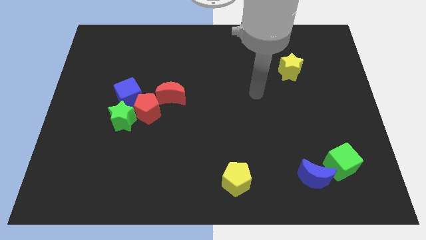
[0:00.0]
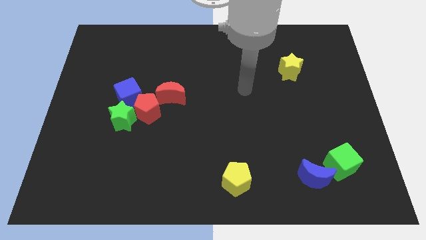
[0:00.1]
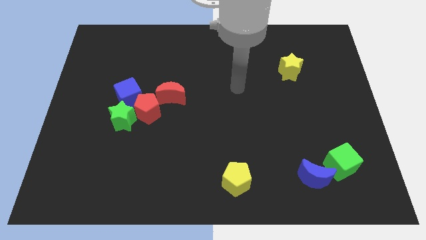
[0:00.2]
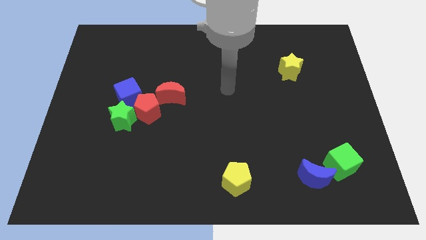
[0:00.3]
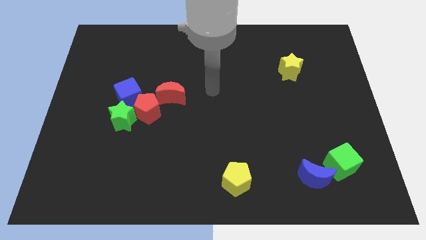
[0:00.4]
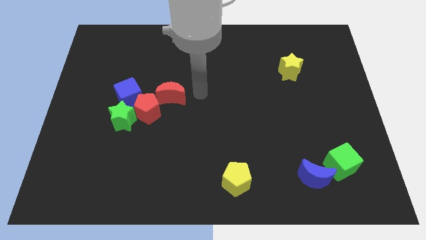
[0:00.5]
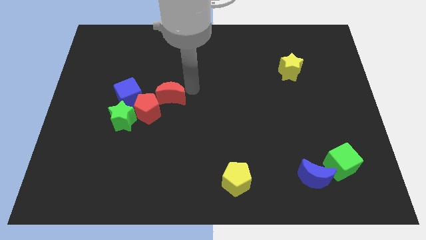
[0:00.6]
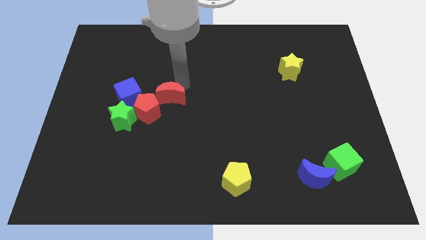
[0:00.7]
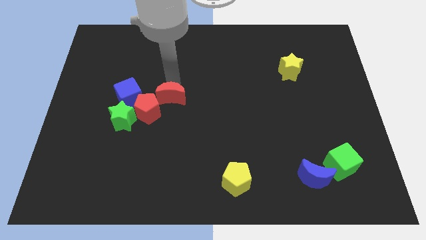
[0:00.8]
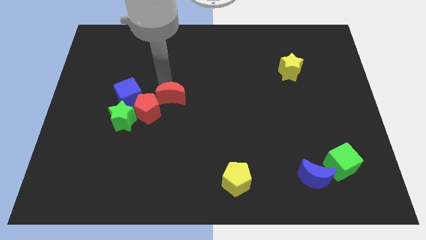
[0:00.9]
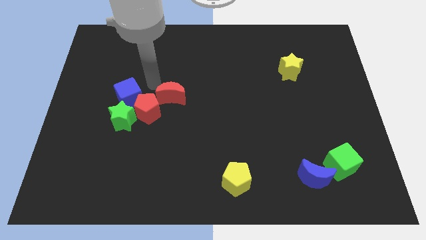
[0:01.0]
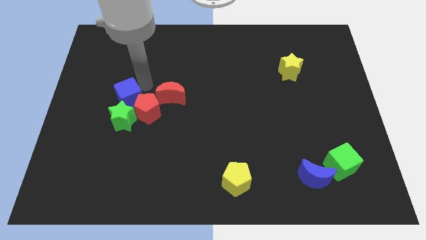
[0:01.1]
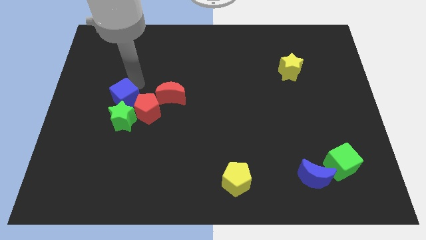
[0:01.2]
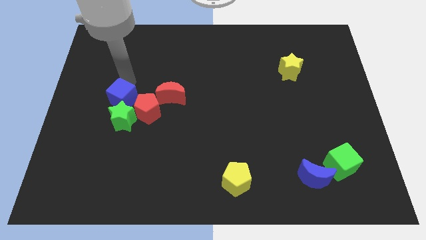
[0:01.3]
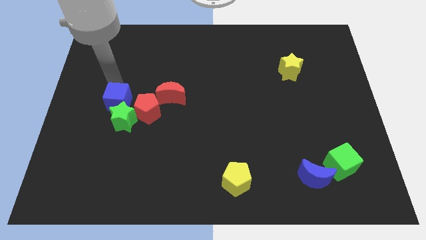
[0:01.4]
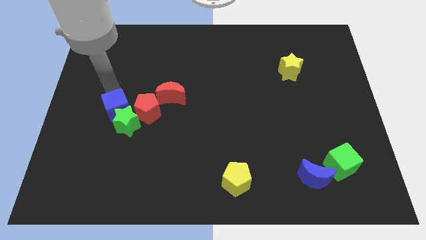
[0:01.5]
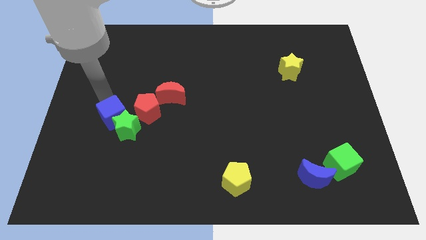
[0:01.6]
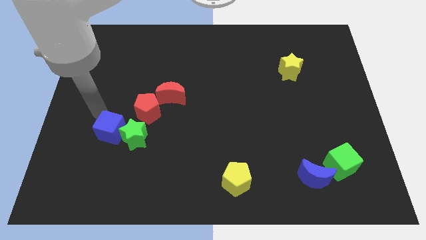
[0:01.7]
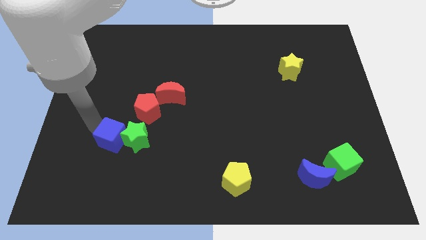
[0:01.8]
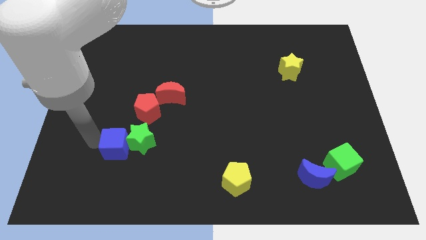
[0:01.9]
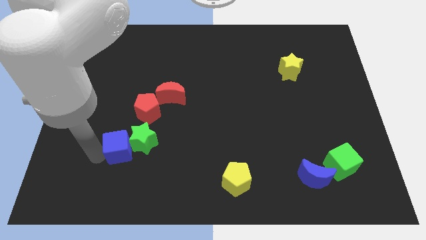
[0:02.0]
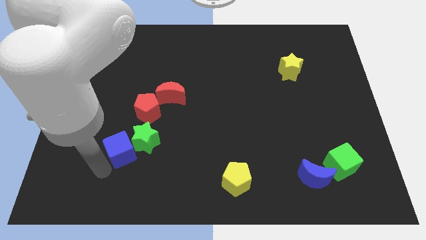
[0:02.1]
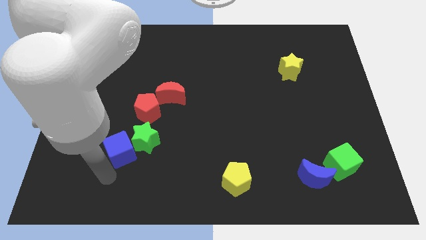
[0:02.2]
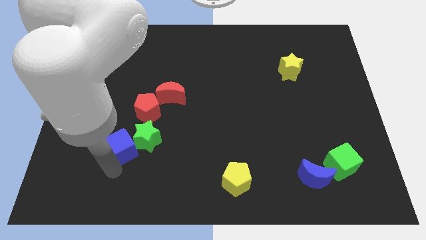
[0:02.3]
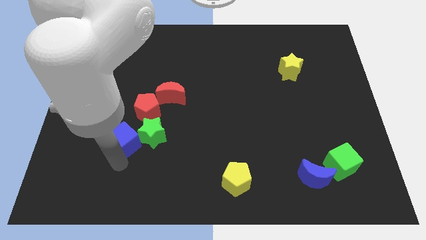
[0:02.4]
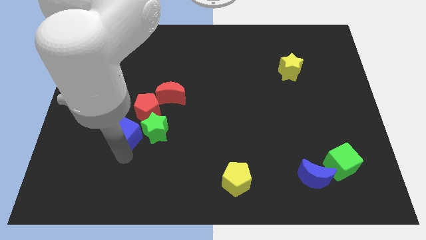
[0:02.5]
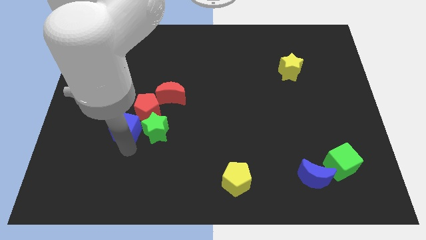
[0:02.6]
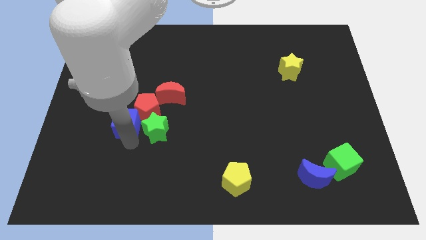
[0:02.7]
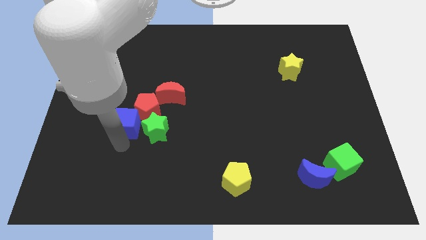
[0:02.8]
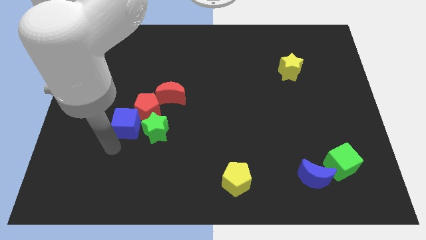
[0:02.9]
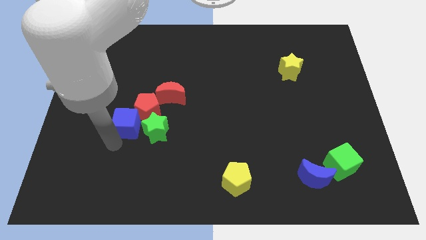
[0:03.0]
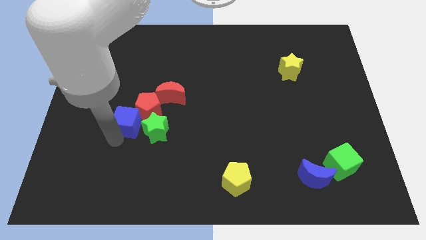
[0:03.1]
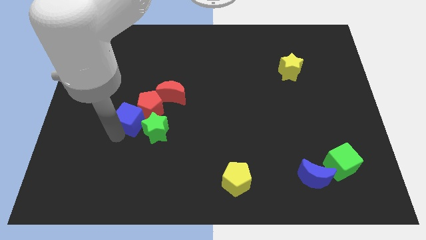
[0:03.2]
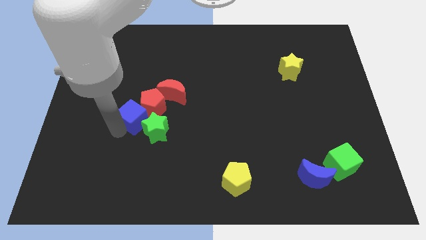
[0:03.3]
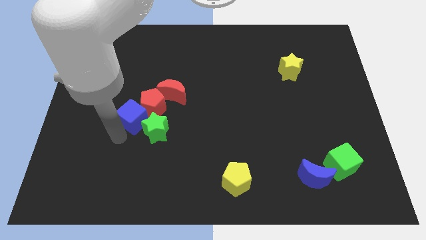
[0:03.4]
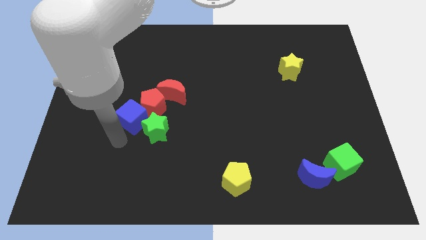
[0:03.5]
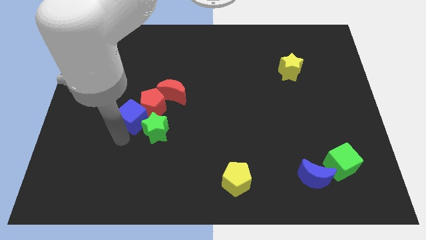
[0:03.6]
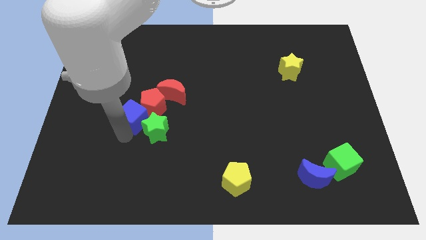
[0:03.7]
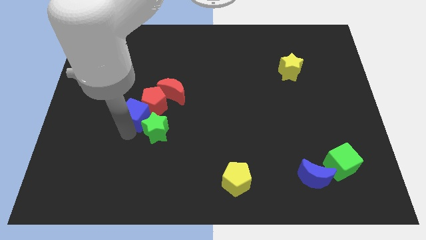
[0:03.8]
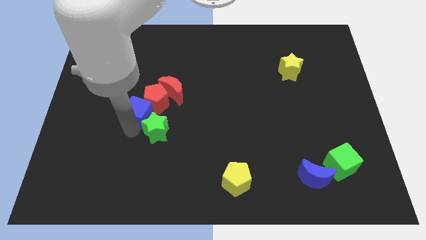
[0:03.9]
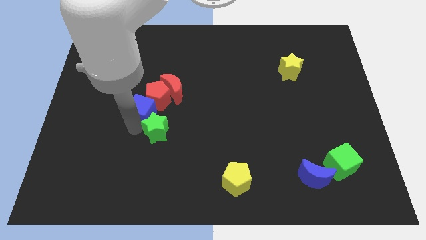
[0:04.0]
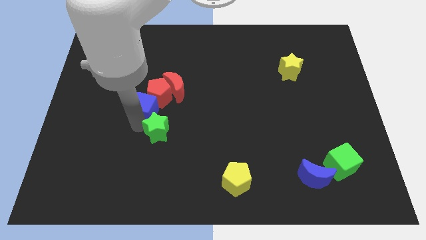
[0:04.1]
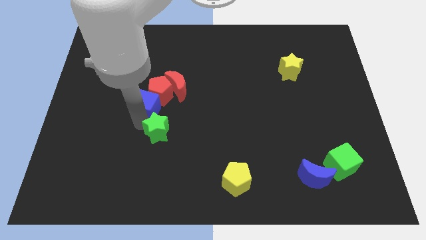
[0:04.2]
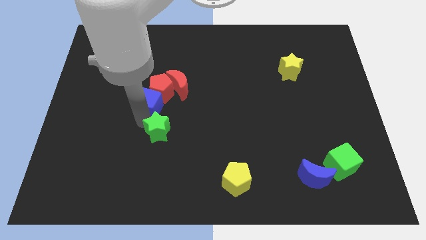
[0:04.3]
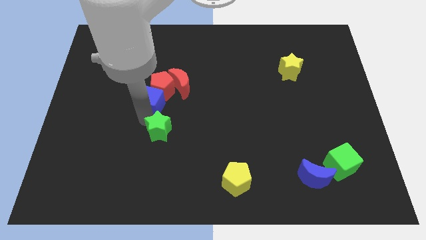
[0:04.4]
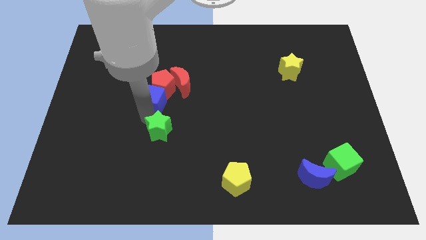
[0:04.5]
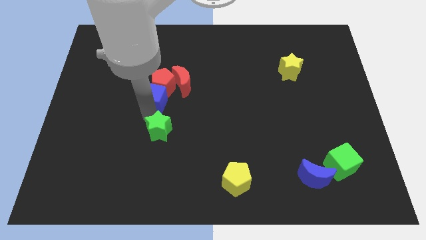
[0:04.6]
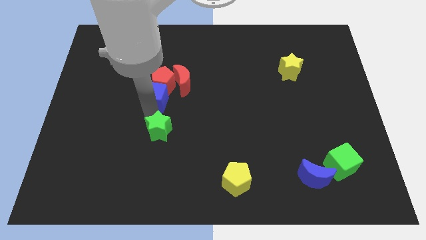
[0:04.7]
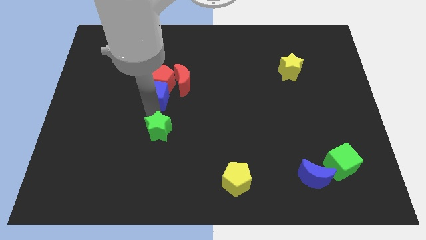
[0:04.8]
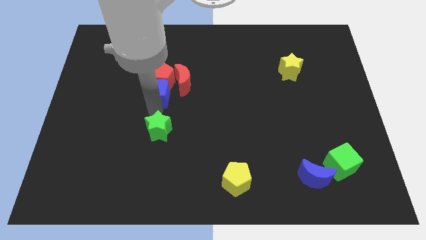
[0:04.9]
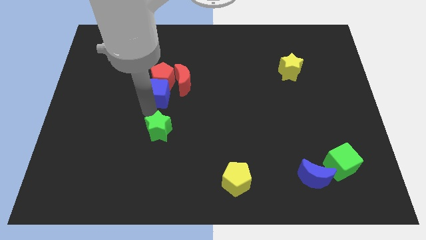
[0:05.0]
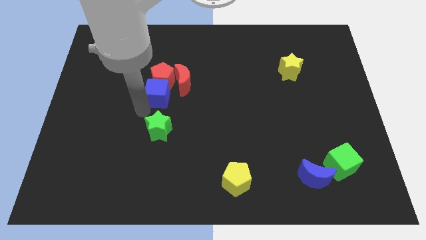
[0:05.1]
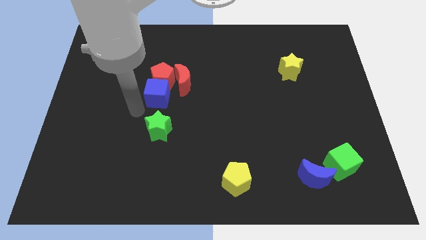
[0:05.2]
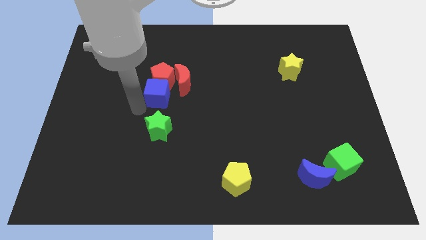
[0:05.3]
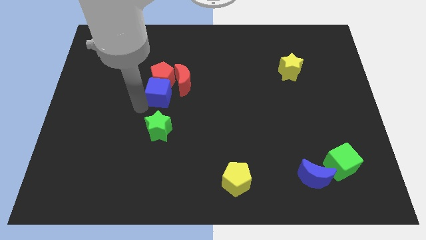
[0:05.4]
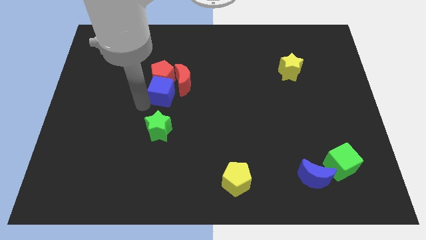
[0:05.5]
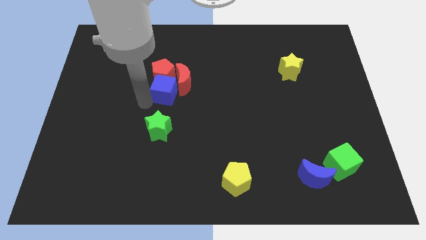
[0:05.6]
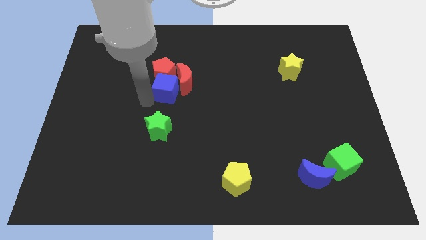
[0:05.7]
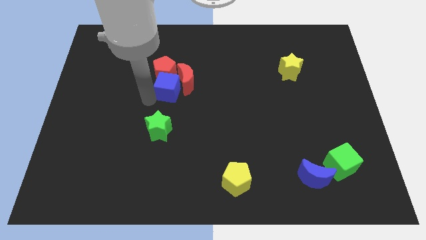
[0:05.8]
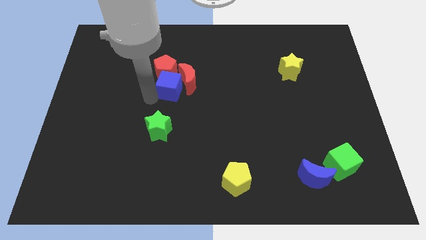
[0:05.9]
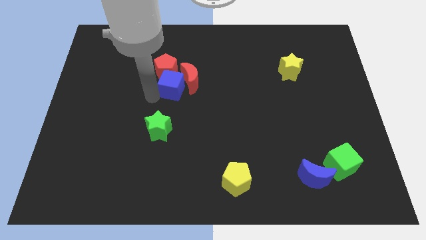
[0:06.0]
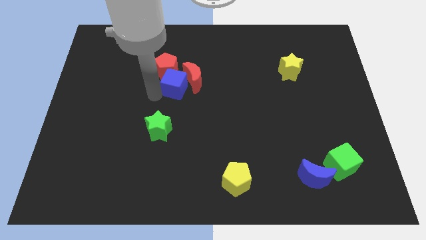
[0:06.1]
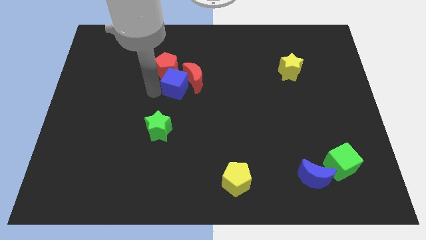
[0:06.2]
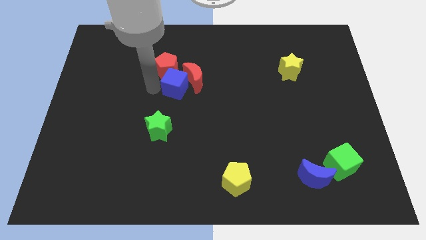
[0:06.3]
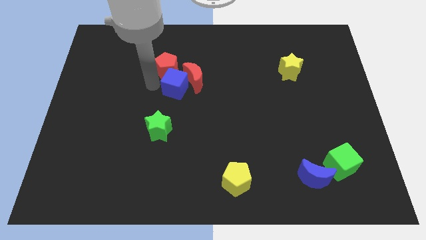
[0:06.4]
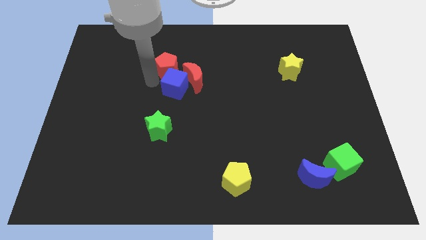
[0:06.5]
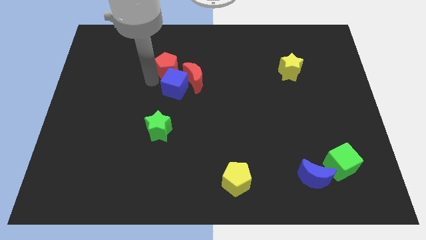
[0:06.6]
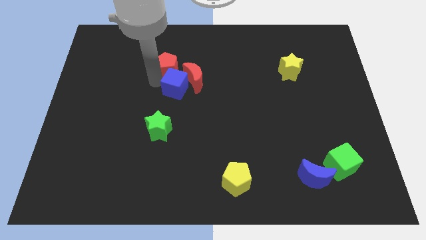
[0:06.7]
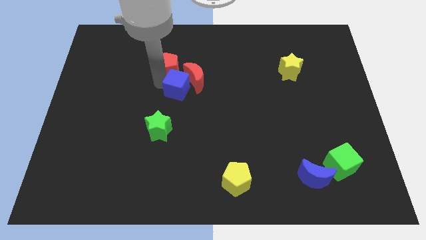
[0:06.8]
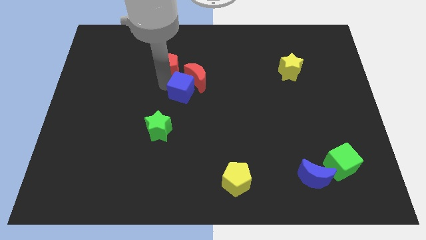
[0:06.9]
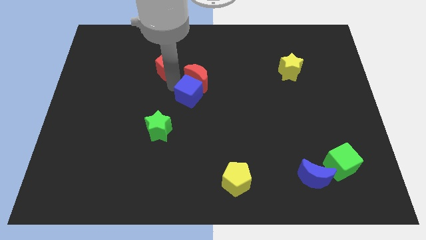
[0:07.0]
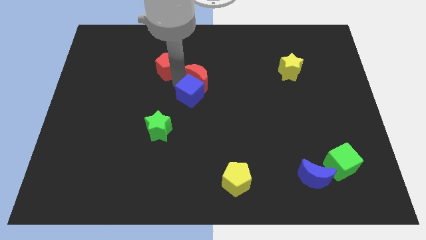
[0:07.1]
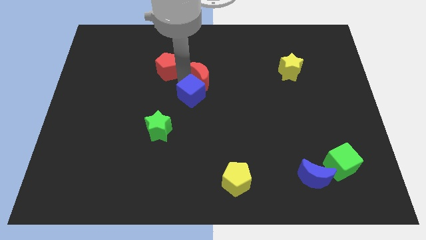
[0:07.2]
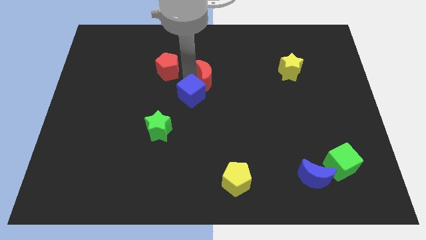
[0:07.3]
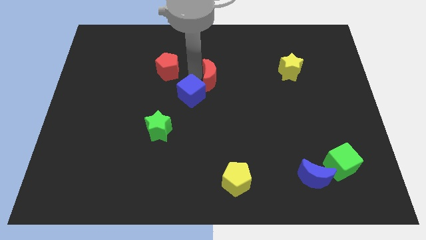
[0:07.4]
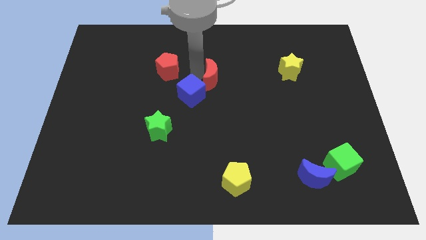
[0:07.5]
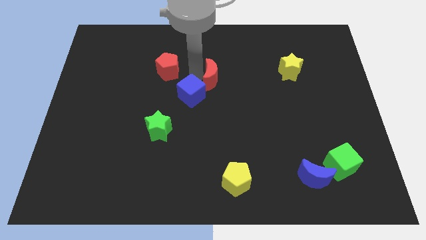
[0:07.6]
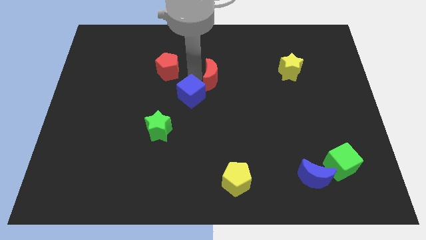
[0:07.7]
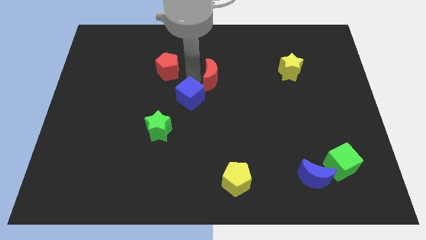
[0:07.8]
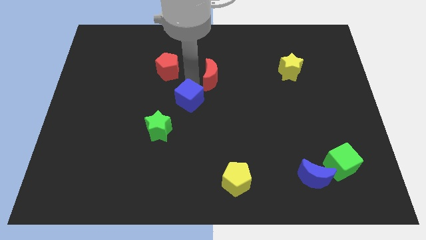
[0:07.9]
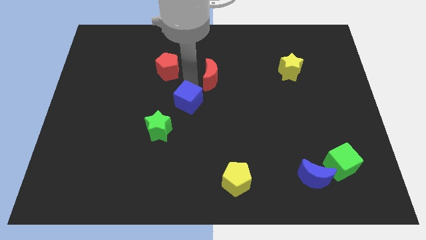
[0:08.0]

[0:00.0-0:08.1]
slightly slide the blue cube diagonally down and to the right
